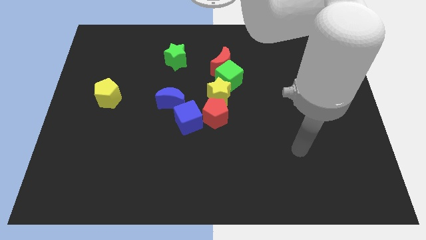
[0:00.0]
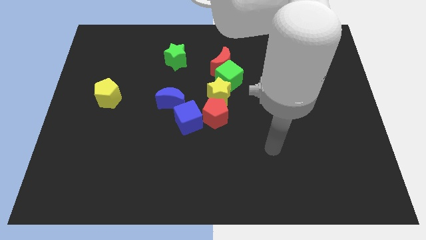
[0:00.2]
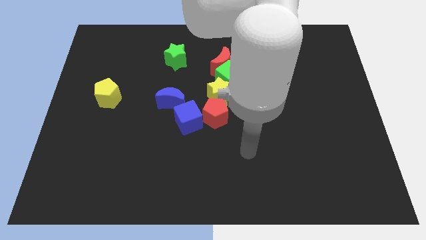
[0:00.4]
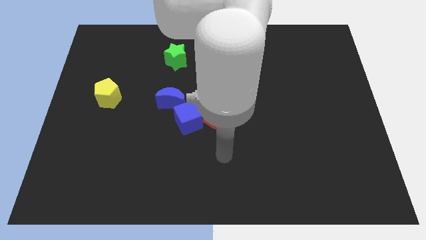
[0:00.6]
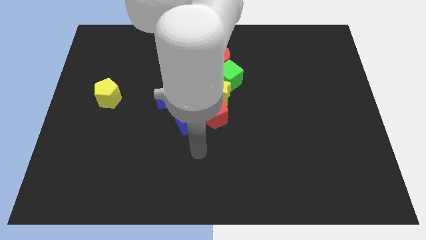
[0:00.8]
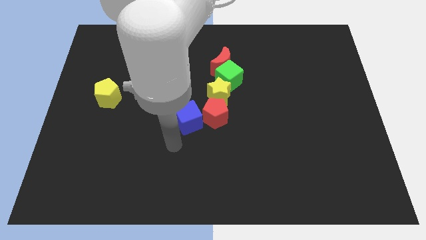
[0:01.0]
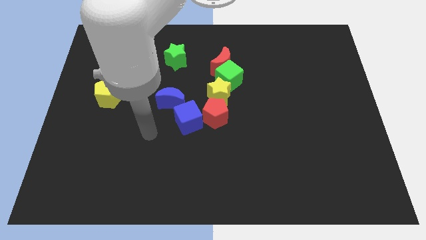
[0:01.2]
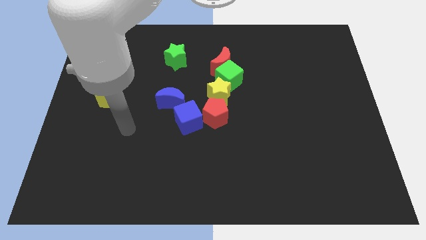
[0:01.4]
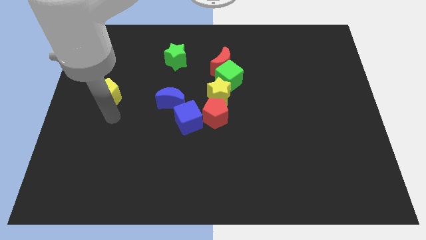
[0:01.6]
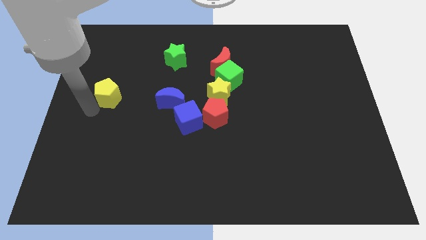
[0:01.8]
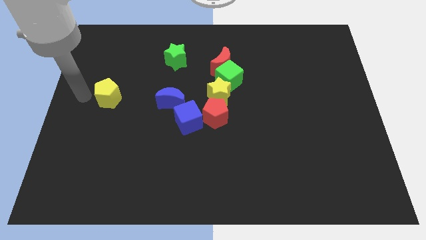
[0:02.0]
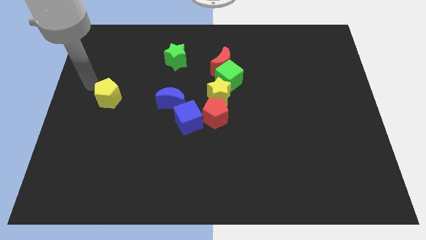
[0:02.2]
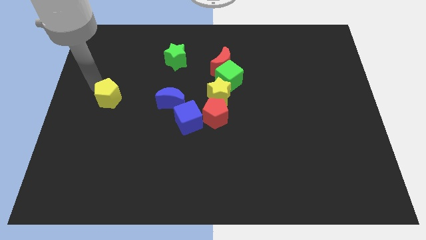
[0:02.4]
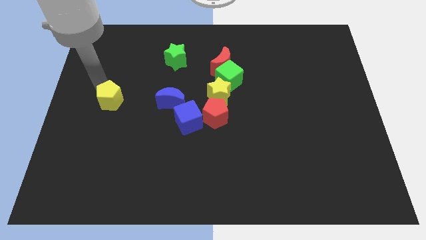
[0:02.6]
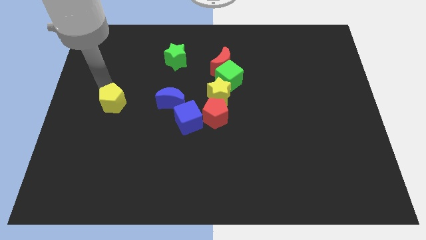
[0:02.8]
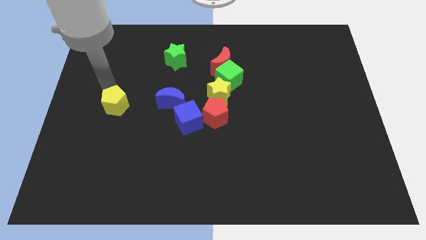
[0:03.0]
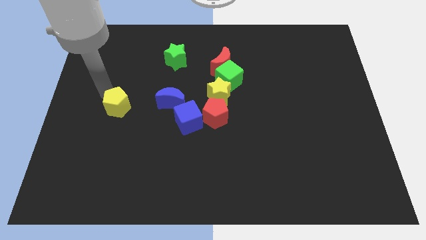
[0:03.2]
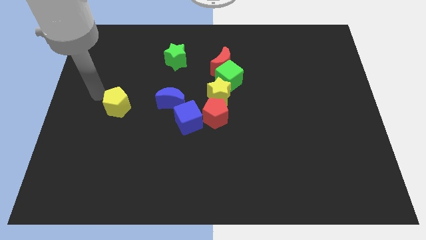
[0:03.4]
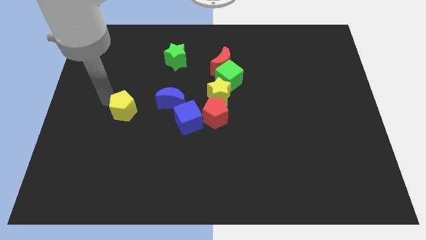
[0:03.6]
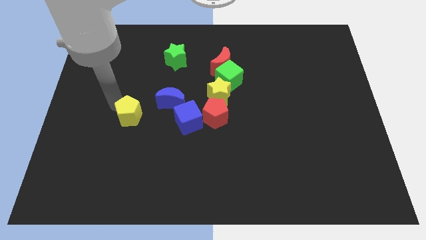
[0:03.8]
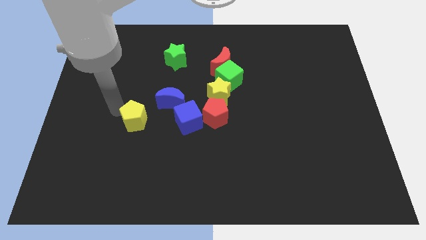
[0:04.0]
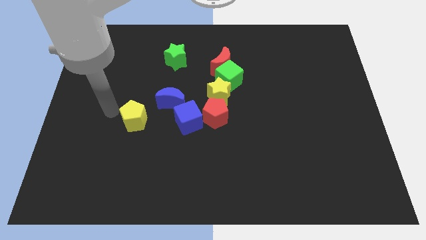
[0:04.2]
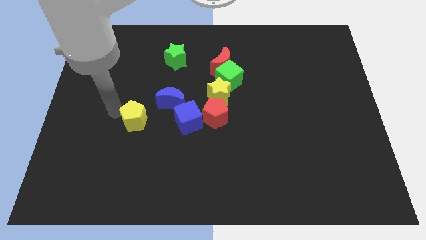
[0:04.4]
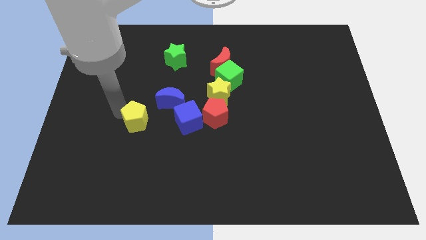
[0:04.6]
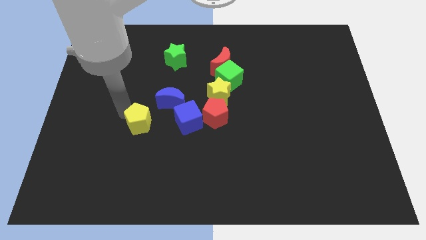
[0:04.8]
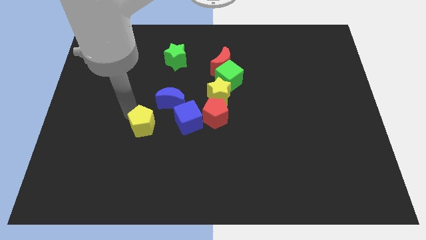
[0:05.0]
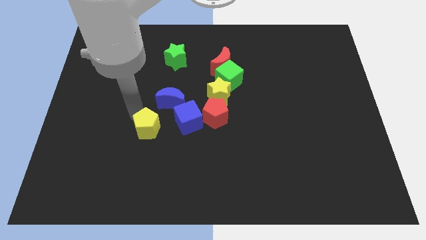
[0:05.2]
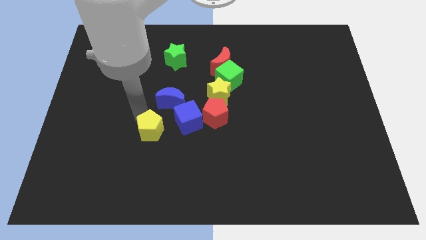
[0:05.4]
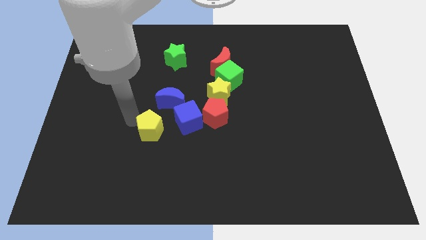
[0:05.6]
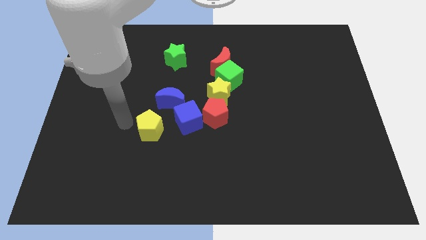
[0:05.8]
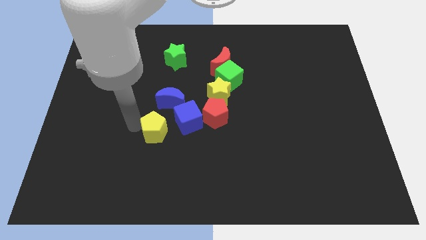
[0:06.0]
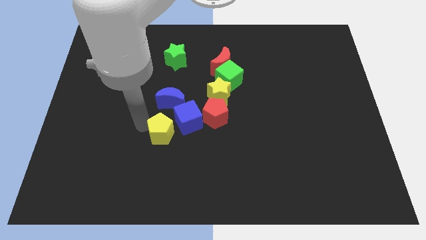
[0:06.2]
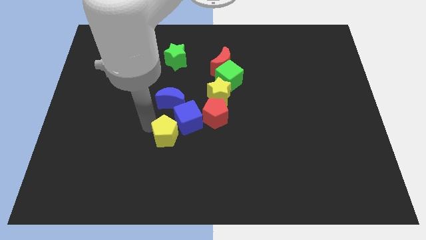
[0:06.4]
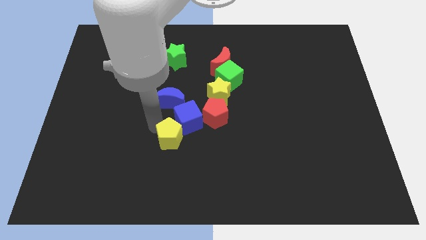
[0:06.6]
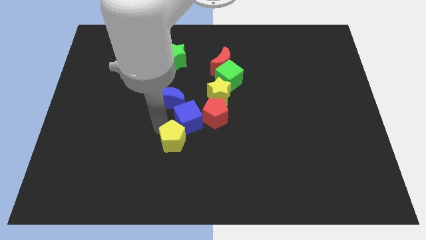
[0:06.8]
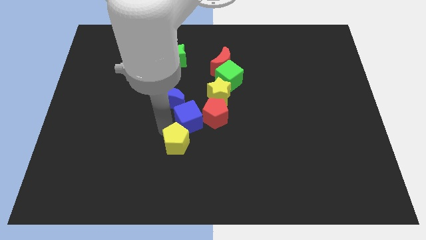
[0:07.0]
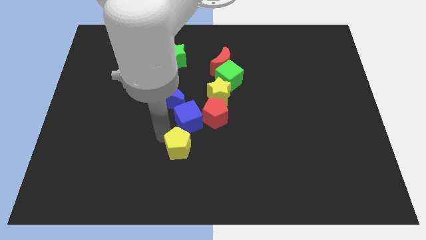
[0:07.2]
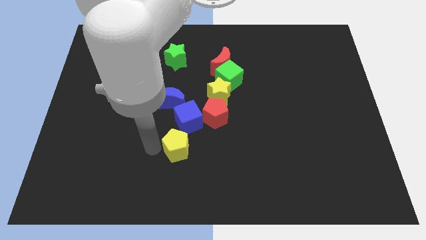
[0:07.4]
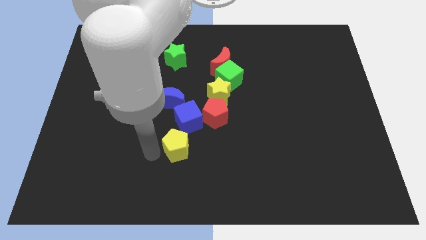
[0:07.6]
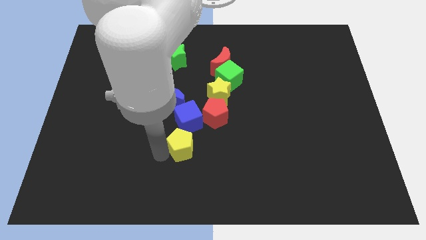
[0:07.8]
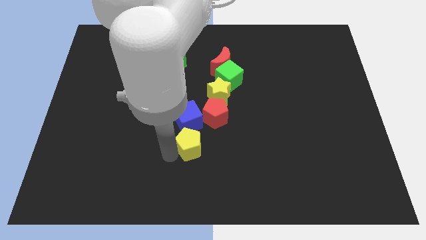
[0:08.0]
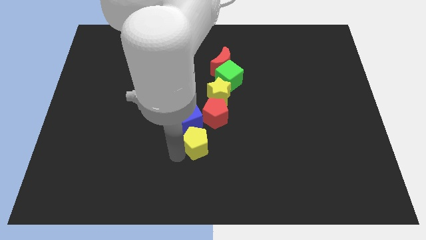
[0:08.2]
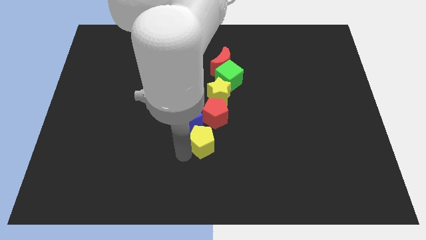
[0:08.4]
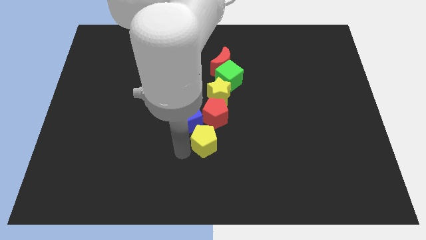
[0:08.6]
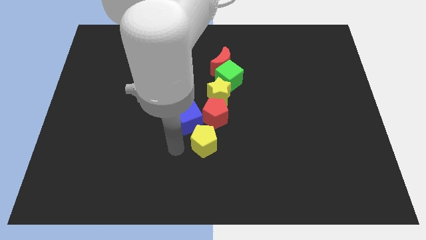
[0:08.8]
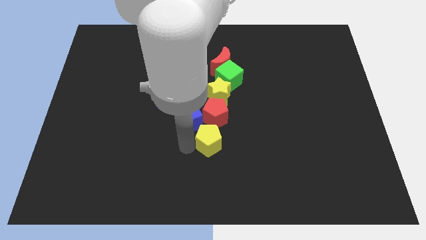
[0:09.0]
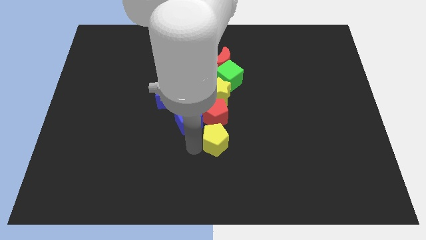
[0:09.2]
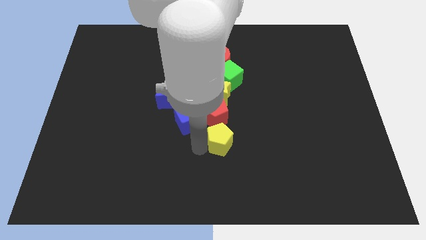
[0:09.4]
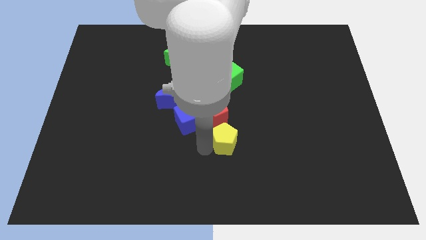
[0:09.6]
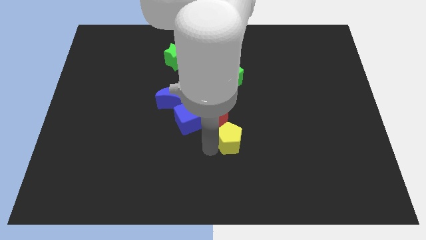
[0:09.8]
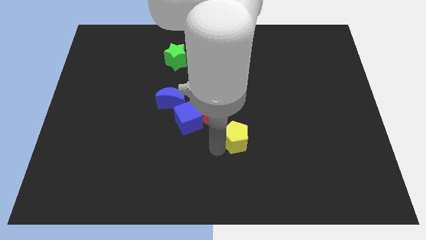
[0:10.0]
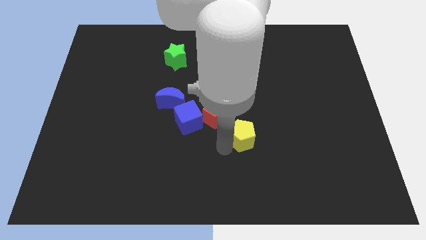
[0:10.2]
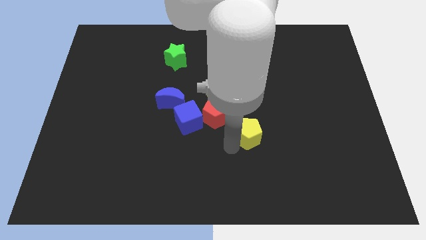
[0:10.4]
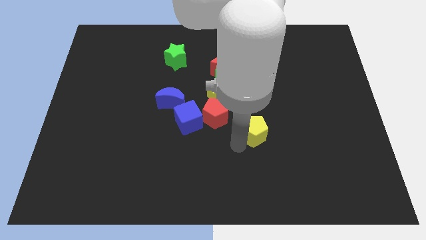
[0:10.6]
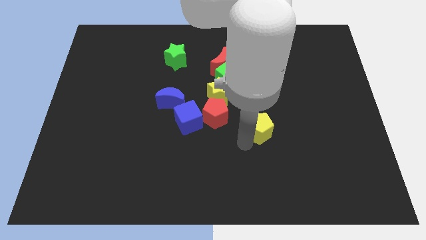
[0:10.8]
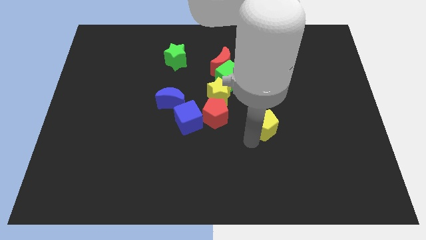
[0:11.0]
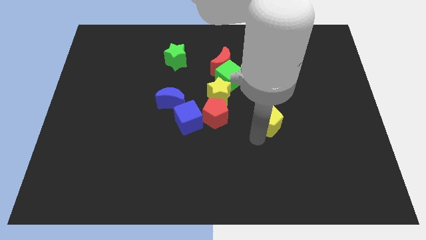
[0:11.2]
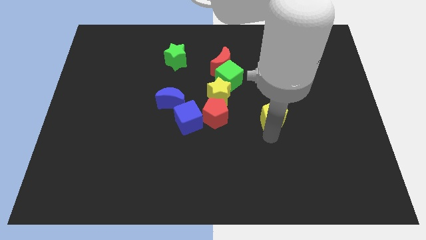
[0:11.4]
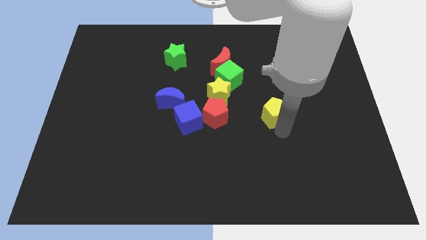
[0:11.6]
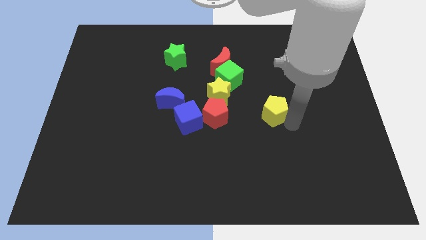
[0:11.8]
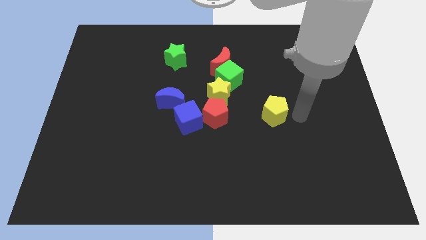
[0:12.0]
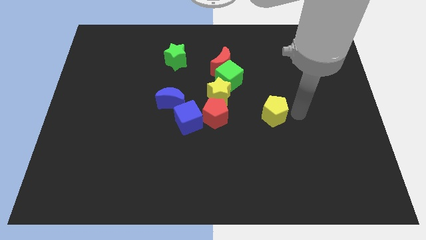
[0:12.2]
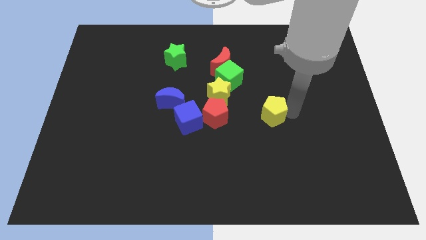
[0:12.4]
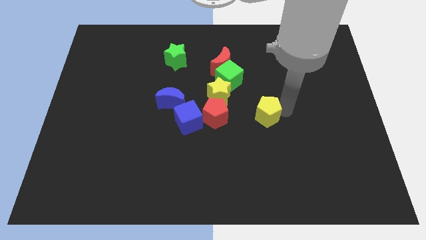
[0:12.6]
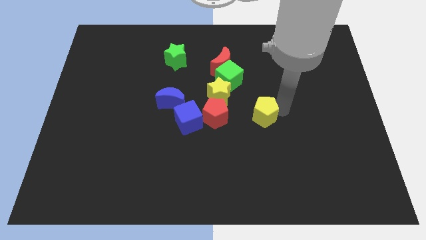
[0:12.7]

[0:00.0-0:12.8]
move the yellow pentagon diagonally down and to the right of the yellow star

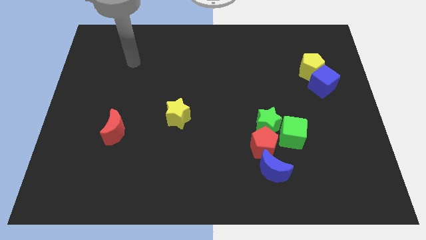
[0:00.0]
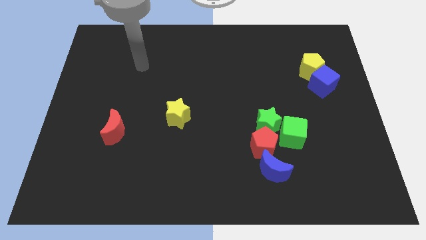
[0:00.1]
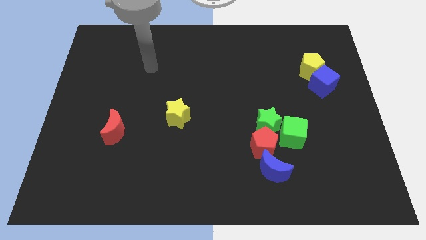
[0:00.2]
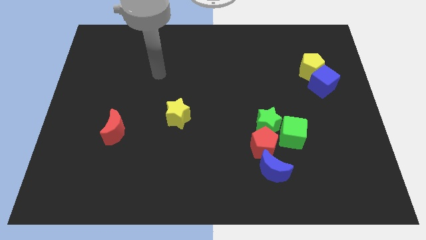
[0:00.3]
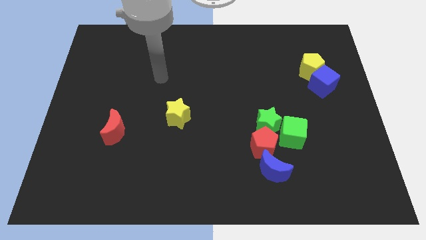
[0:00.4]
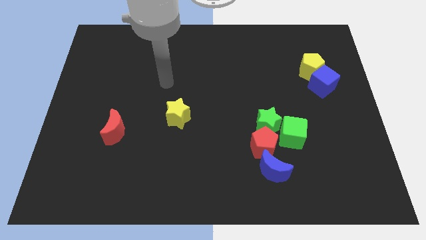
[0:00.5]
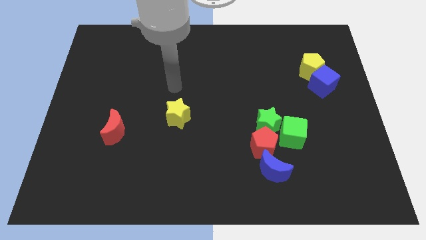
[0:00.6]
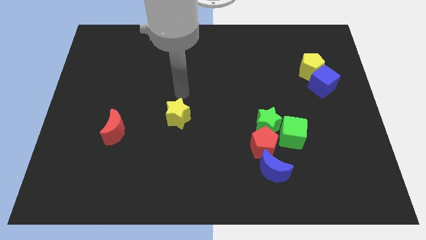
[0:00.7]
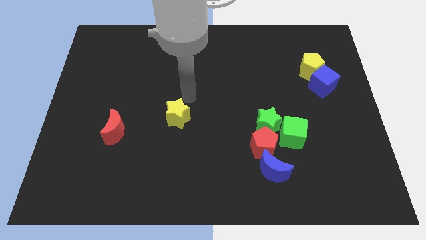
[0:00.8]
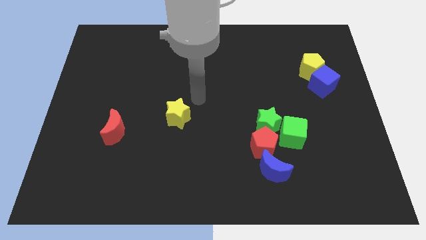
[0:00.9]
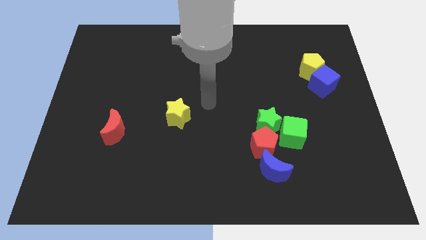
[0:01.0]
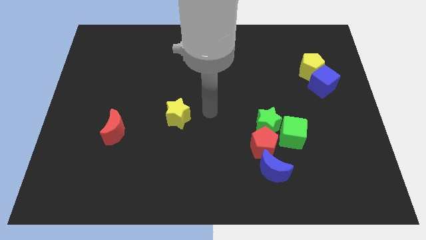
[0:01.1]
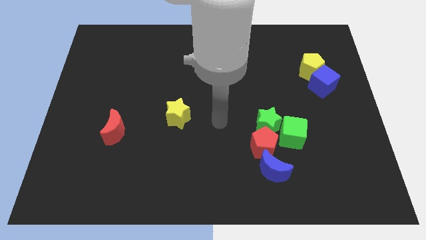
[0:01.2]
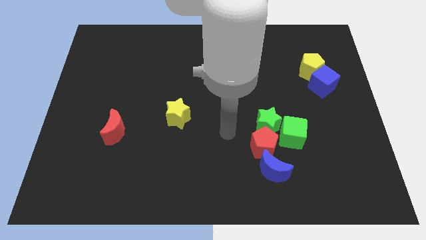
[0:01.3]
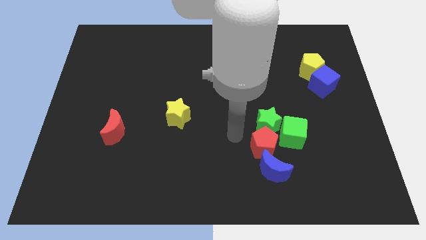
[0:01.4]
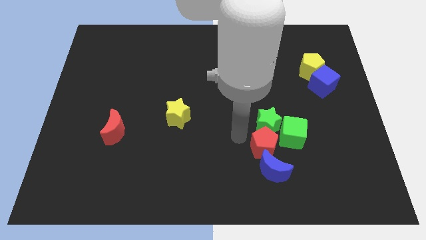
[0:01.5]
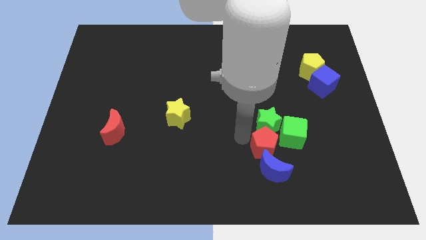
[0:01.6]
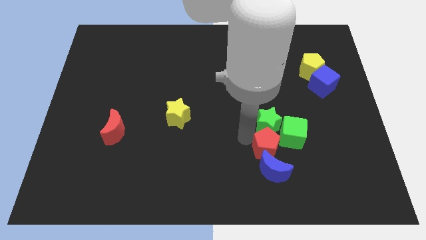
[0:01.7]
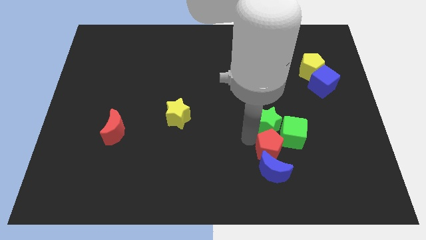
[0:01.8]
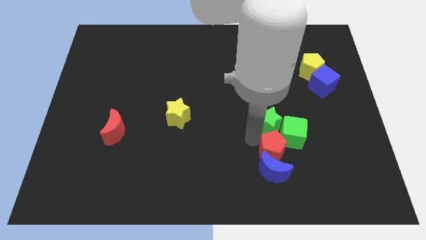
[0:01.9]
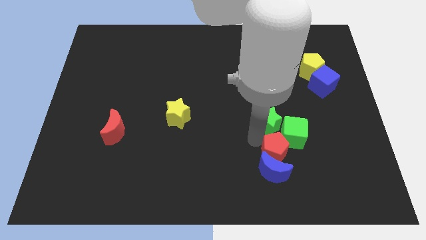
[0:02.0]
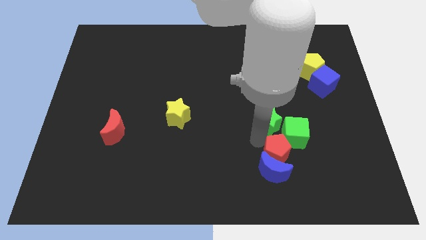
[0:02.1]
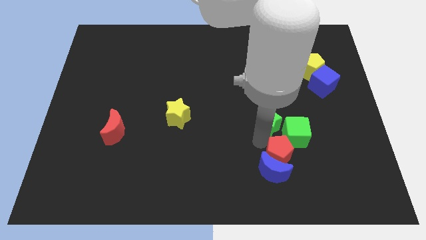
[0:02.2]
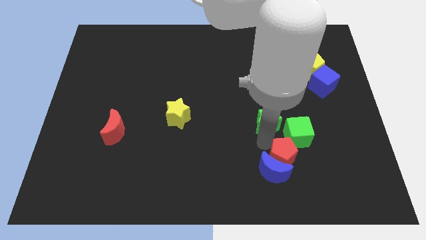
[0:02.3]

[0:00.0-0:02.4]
slide the red pentagon to the right of the blue moon
